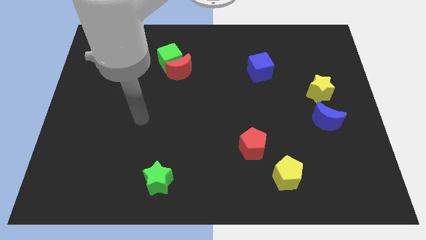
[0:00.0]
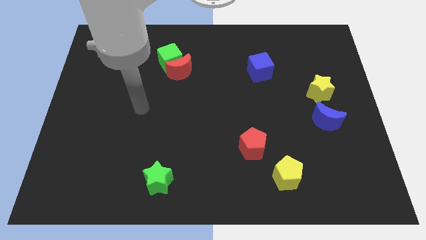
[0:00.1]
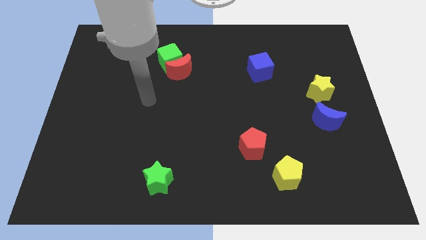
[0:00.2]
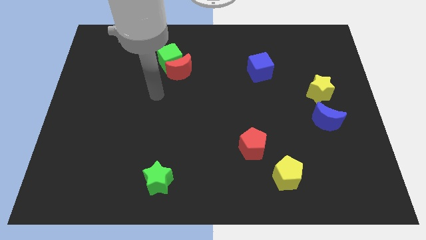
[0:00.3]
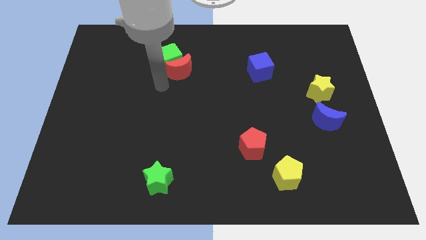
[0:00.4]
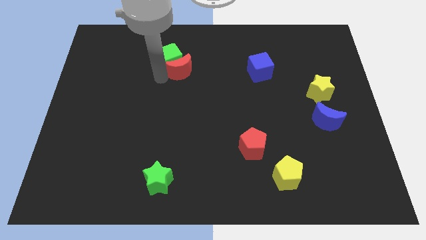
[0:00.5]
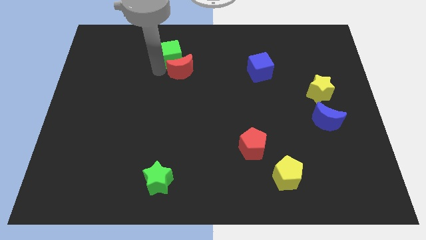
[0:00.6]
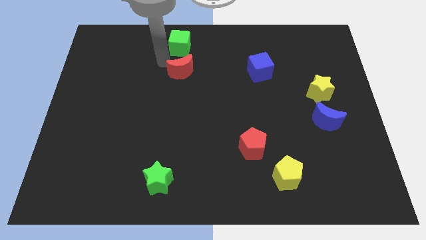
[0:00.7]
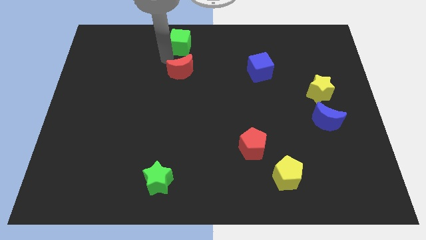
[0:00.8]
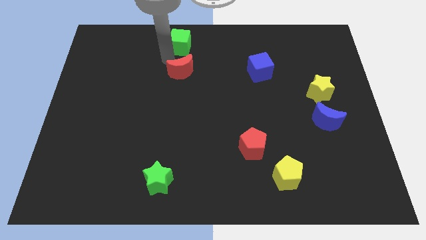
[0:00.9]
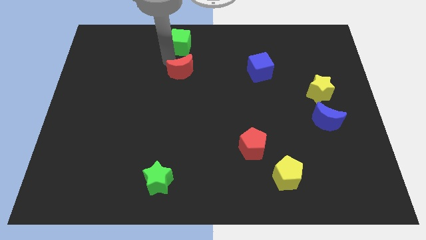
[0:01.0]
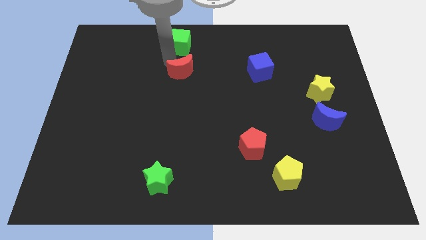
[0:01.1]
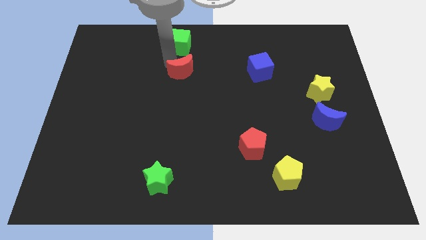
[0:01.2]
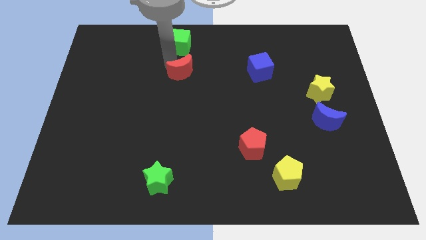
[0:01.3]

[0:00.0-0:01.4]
move the red moon away from the green cube

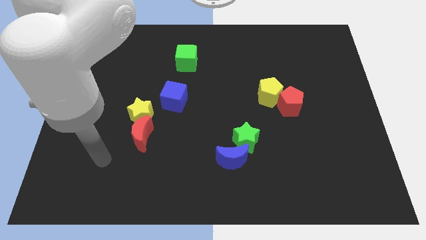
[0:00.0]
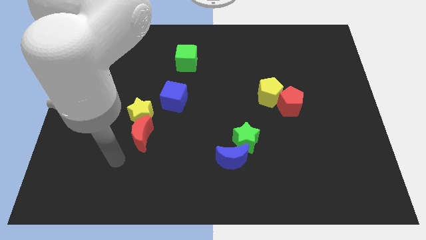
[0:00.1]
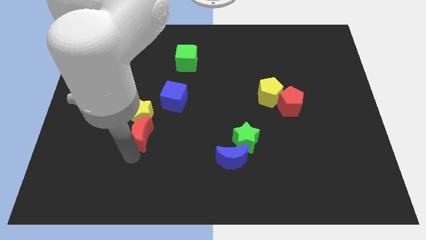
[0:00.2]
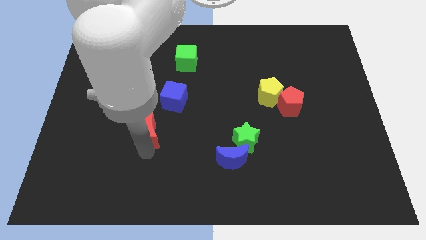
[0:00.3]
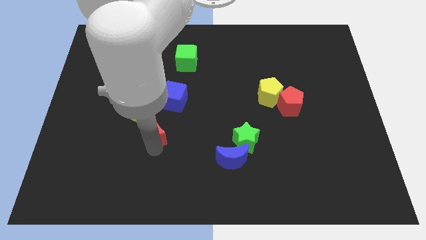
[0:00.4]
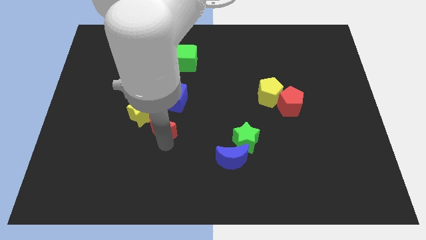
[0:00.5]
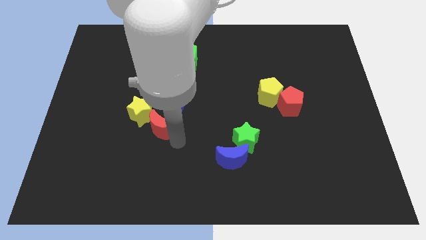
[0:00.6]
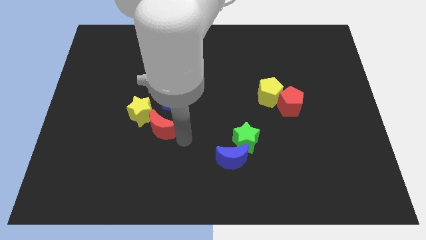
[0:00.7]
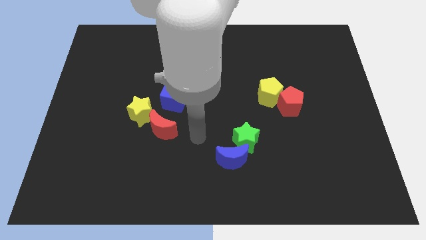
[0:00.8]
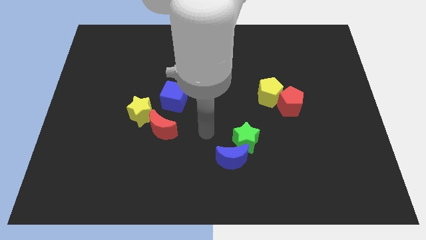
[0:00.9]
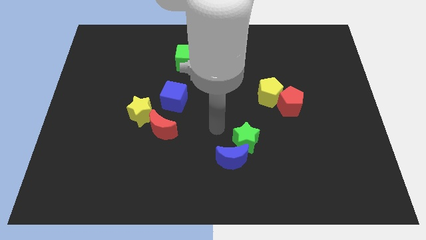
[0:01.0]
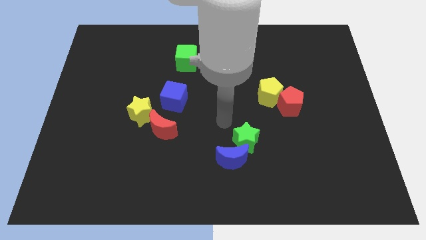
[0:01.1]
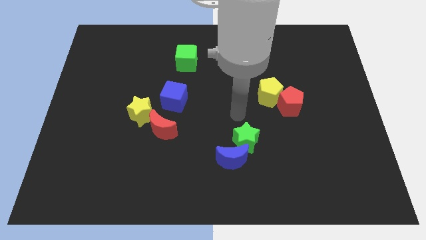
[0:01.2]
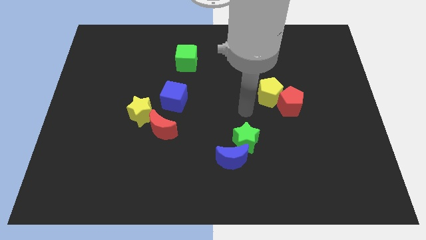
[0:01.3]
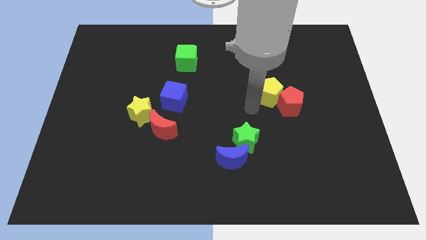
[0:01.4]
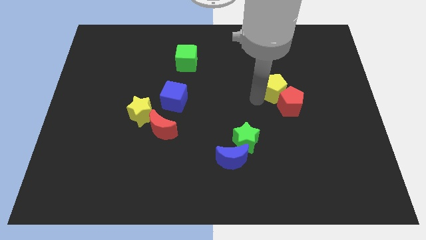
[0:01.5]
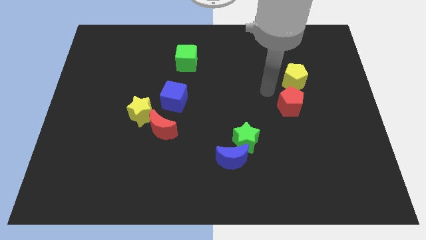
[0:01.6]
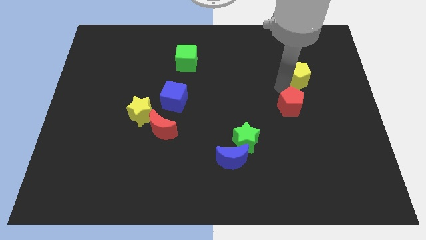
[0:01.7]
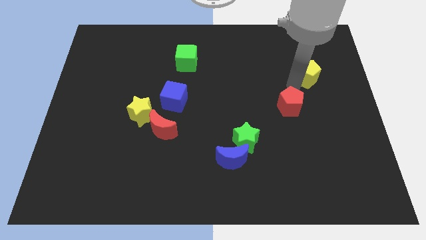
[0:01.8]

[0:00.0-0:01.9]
separate the red pentagon from the yellow pentagon

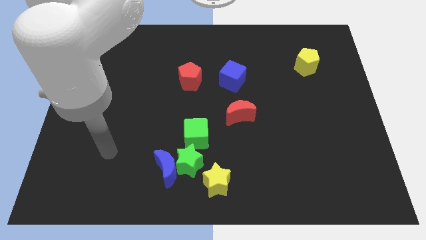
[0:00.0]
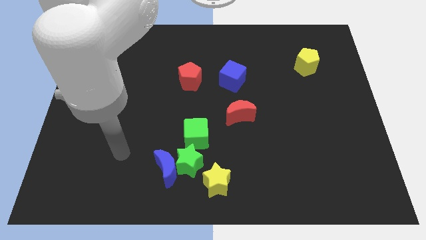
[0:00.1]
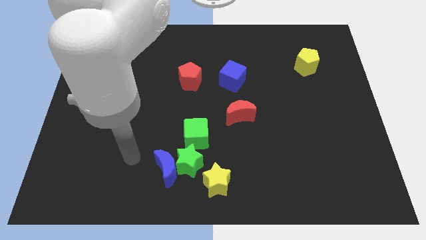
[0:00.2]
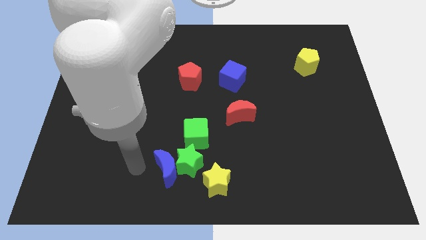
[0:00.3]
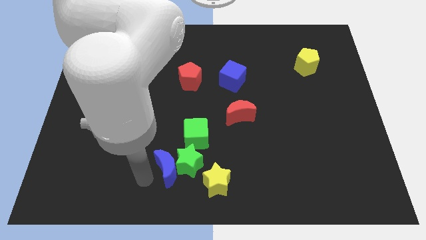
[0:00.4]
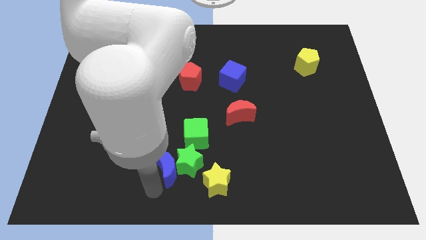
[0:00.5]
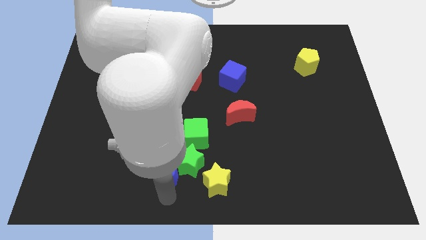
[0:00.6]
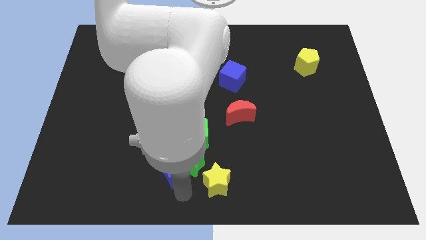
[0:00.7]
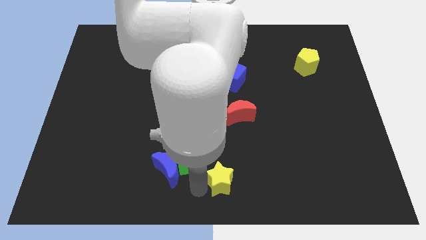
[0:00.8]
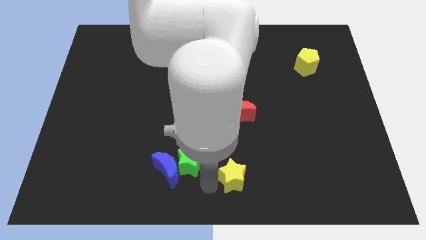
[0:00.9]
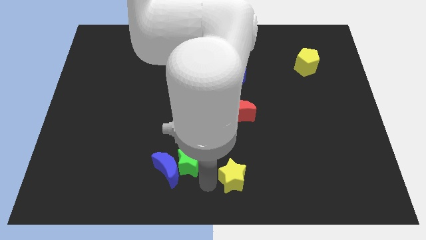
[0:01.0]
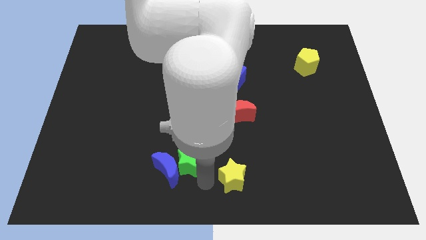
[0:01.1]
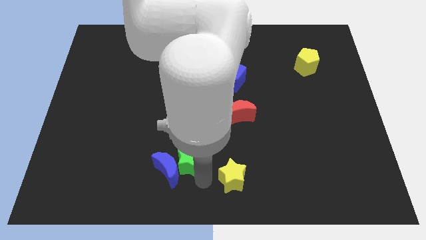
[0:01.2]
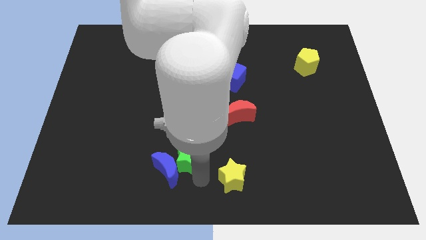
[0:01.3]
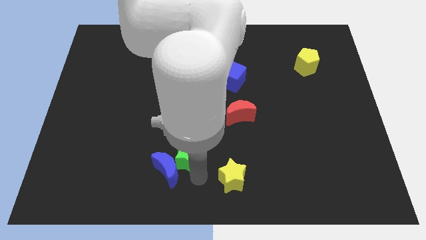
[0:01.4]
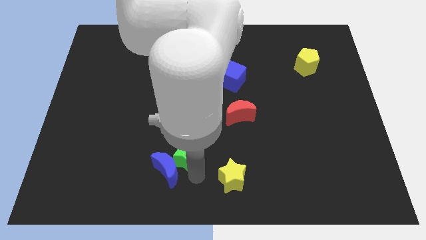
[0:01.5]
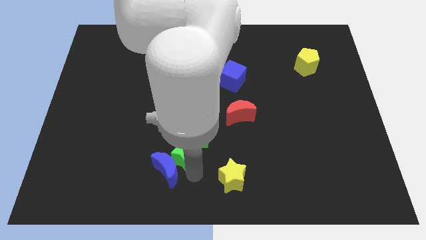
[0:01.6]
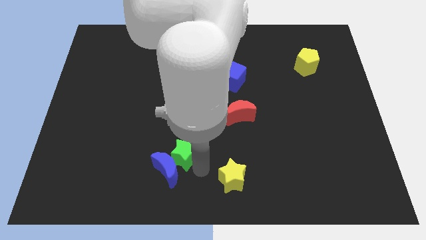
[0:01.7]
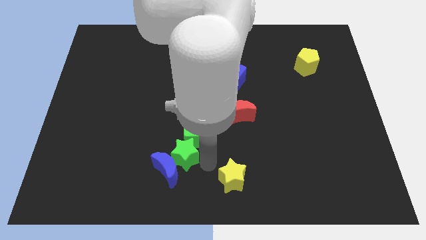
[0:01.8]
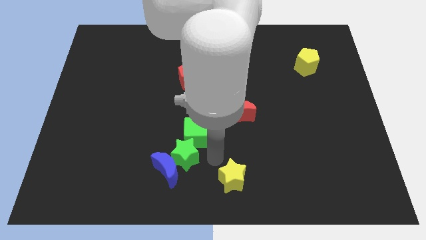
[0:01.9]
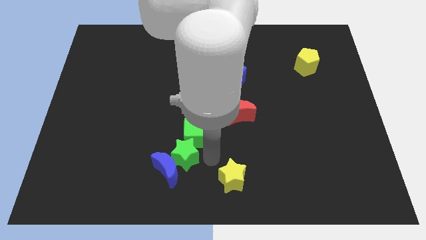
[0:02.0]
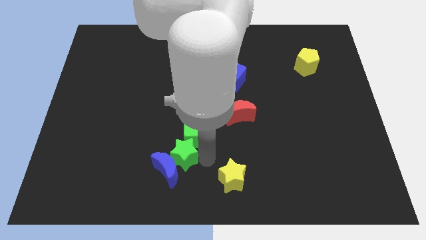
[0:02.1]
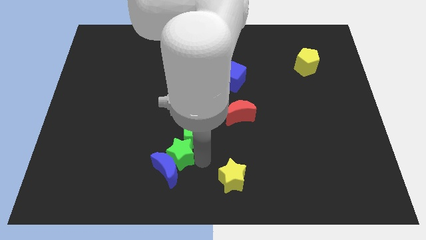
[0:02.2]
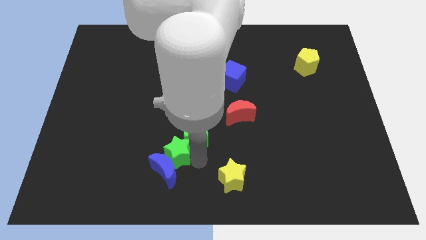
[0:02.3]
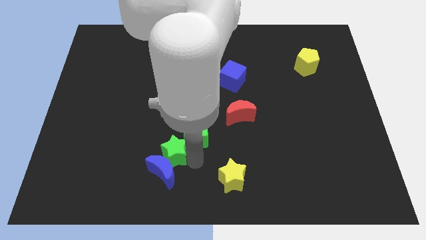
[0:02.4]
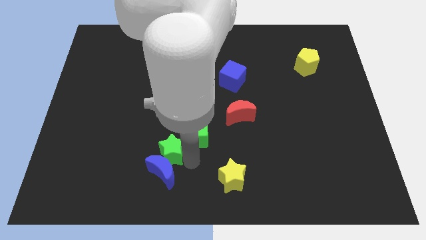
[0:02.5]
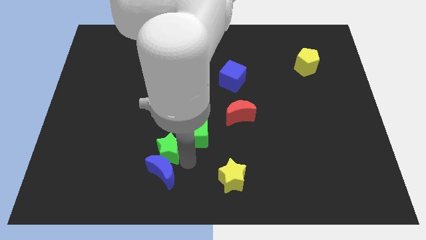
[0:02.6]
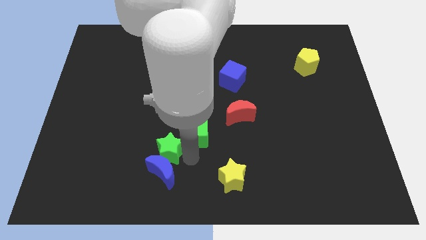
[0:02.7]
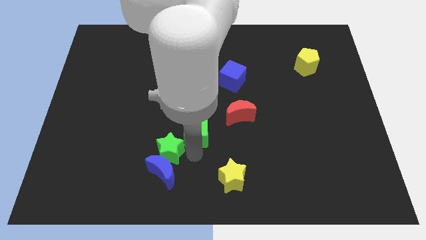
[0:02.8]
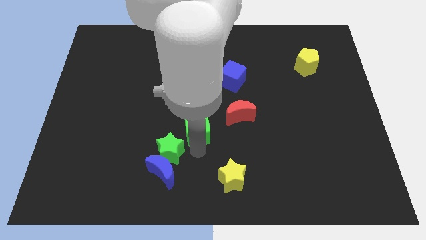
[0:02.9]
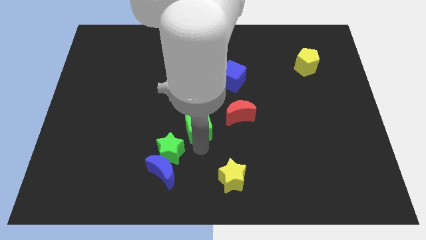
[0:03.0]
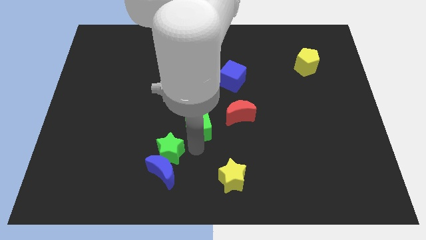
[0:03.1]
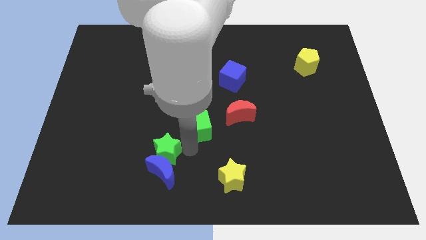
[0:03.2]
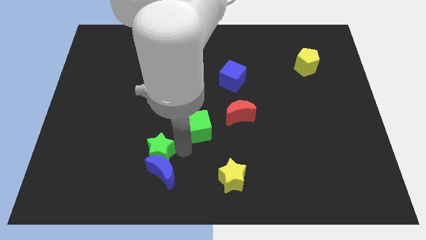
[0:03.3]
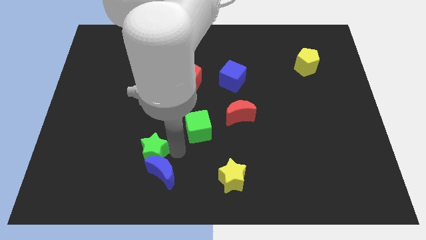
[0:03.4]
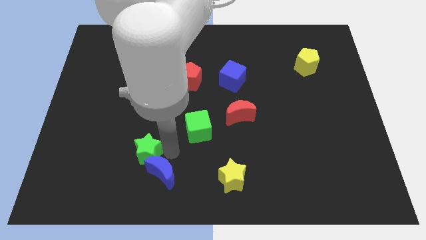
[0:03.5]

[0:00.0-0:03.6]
separate the green star from the clump

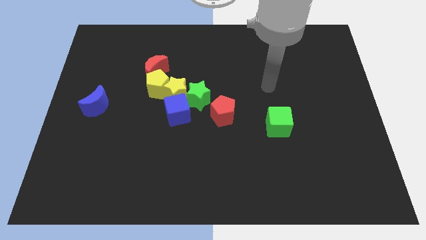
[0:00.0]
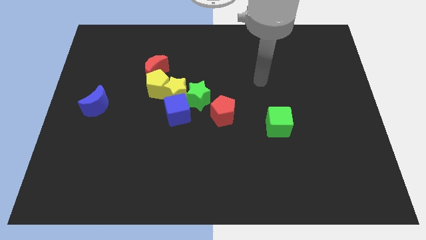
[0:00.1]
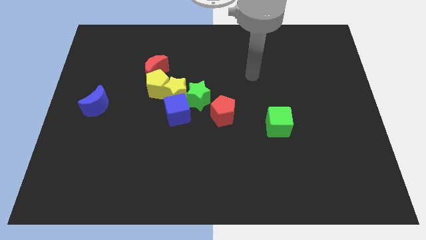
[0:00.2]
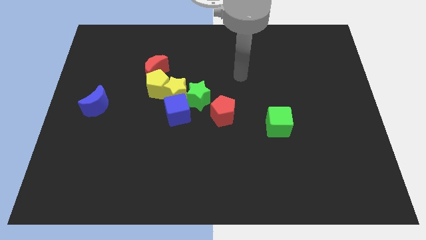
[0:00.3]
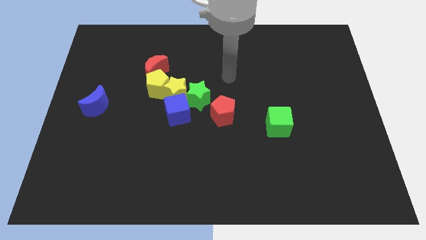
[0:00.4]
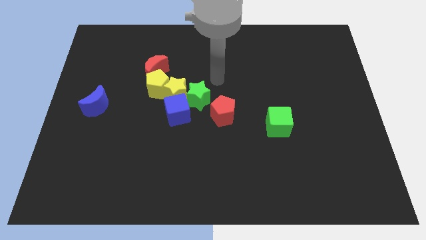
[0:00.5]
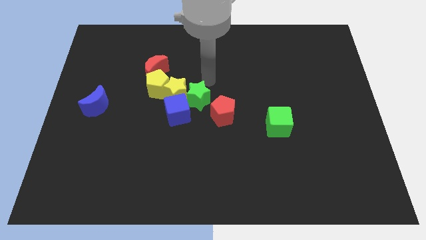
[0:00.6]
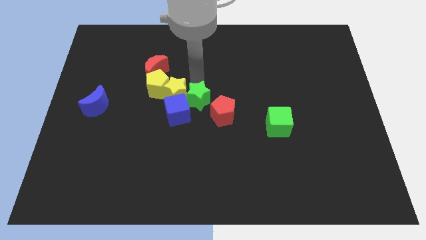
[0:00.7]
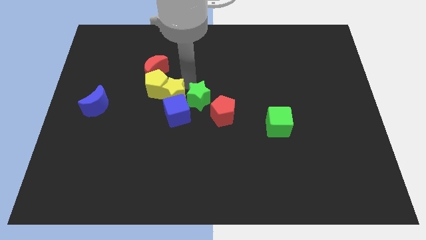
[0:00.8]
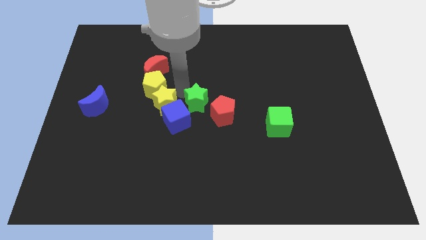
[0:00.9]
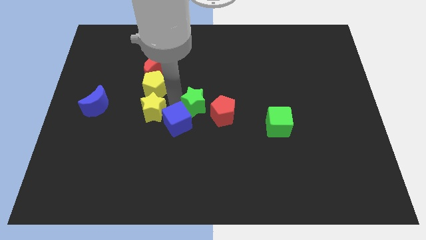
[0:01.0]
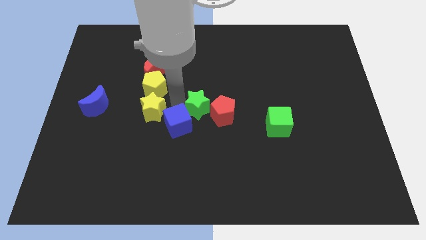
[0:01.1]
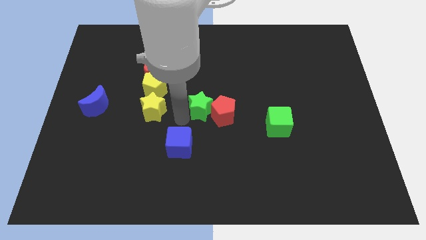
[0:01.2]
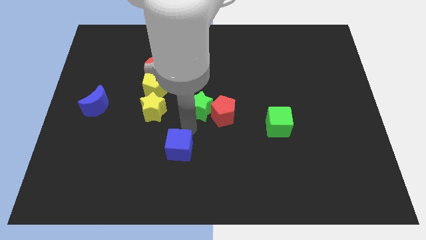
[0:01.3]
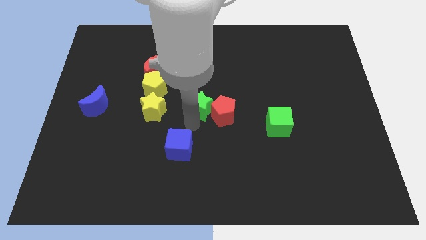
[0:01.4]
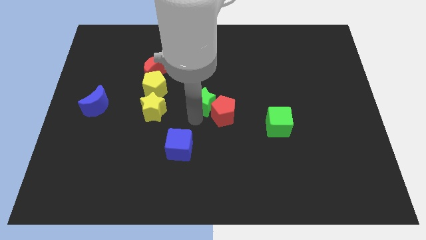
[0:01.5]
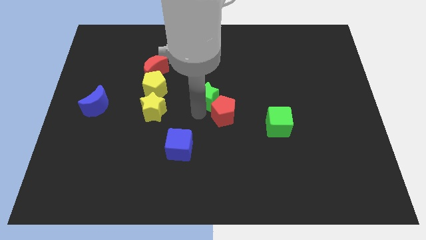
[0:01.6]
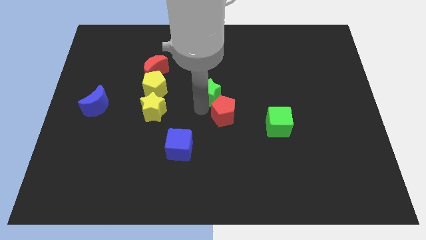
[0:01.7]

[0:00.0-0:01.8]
pull the green star apart from the group of blocks

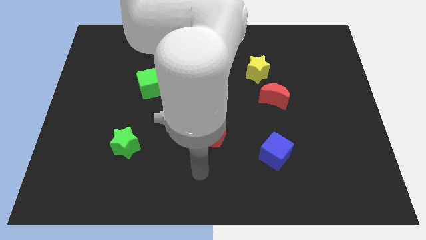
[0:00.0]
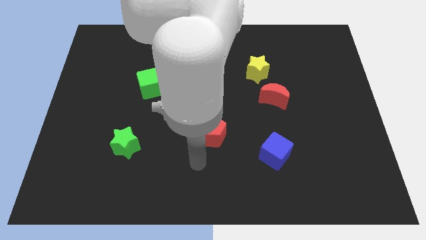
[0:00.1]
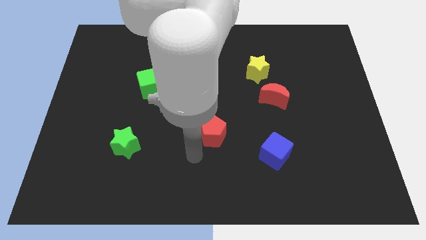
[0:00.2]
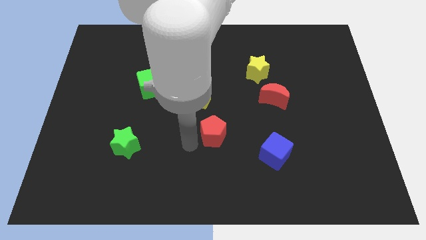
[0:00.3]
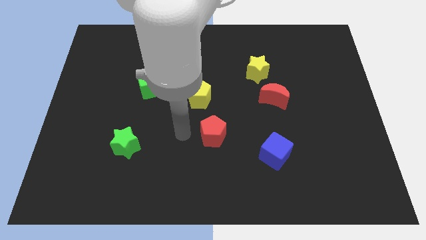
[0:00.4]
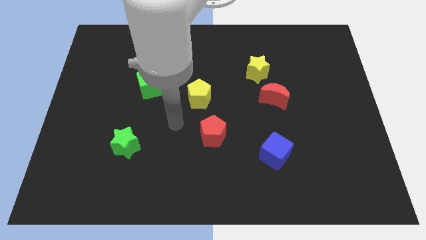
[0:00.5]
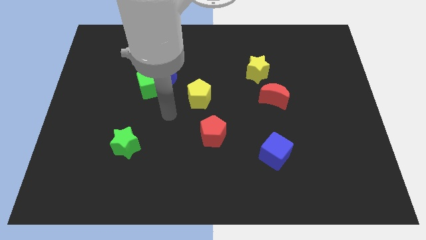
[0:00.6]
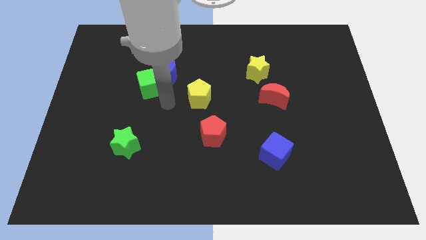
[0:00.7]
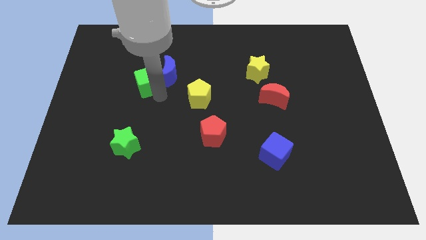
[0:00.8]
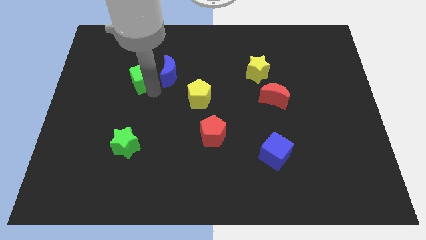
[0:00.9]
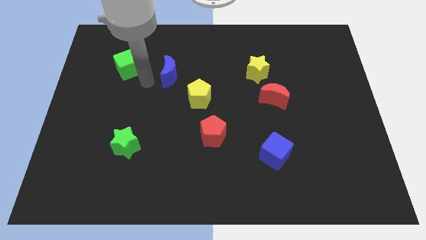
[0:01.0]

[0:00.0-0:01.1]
move the blue moon away from the green cube
